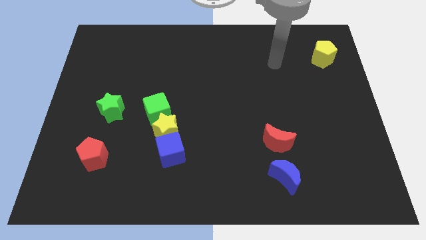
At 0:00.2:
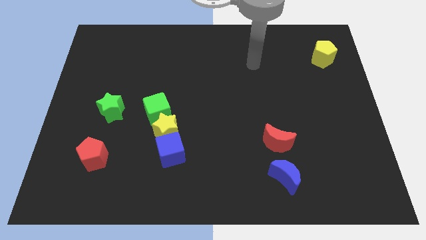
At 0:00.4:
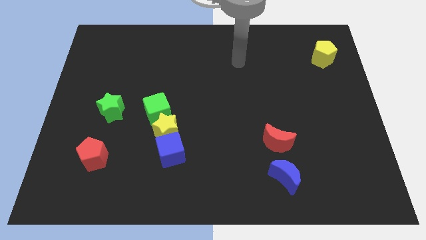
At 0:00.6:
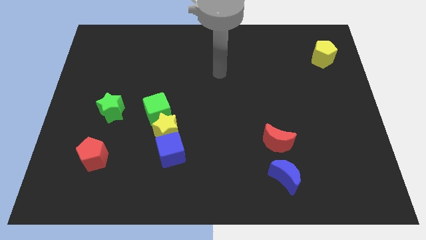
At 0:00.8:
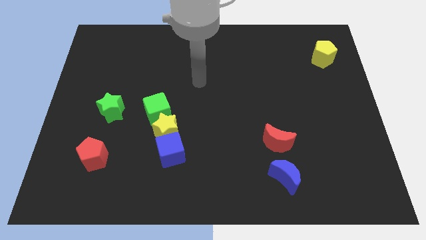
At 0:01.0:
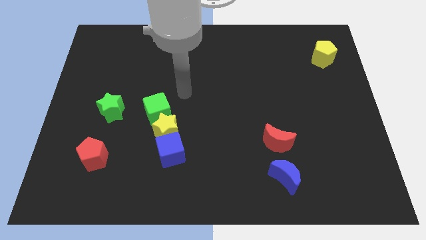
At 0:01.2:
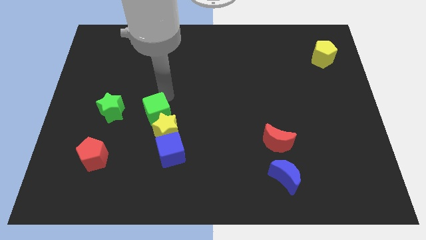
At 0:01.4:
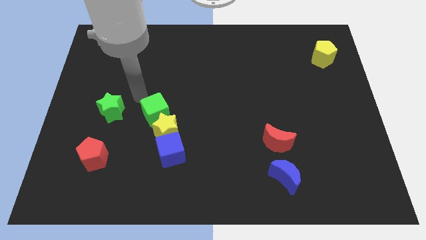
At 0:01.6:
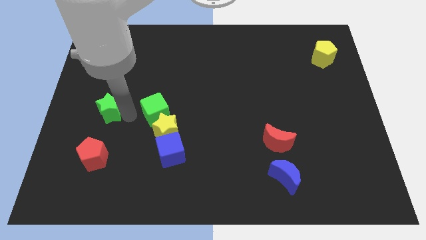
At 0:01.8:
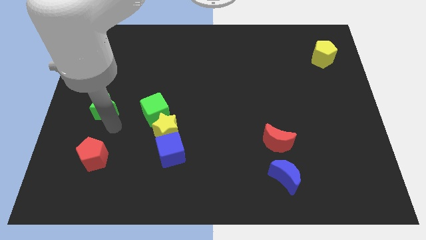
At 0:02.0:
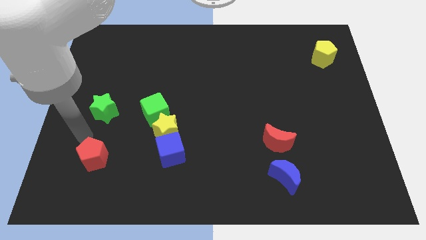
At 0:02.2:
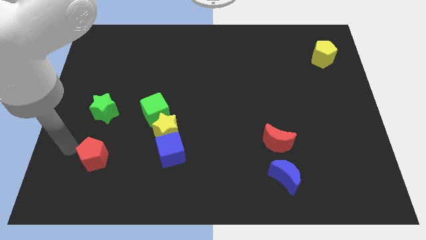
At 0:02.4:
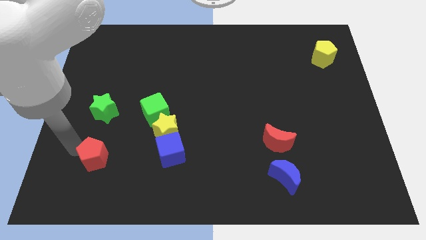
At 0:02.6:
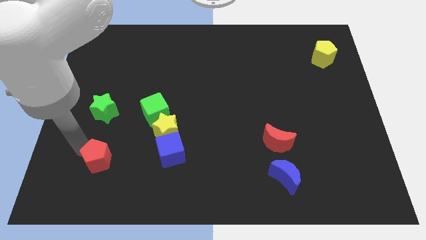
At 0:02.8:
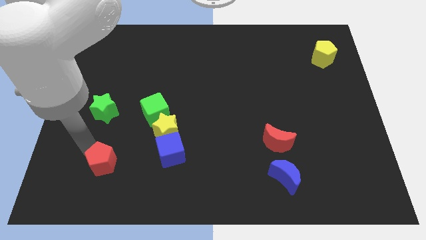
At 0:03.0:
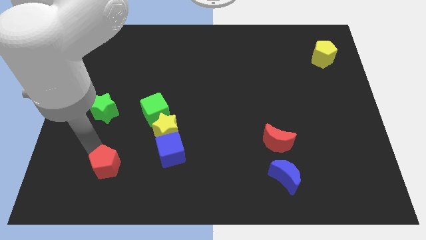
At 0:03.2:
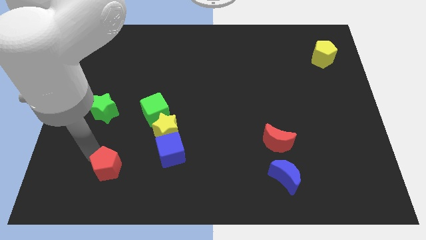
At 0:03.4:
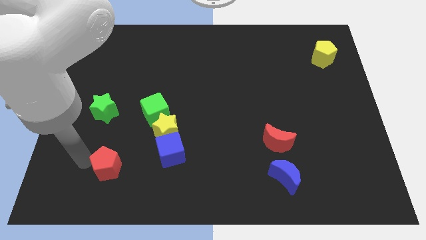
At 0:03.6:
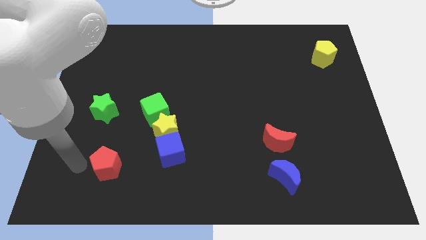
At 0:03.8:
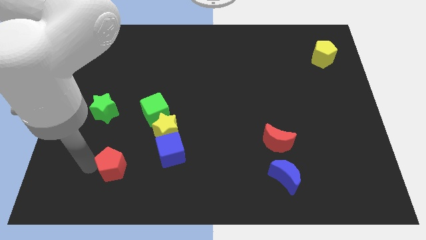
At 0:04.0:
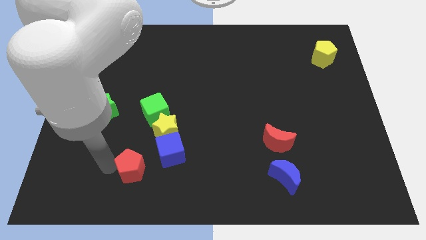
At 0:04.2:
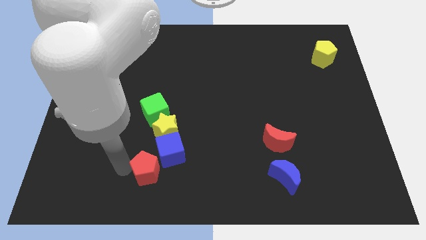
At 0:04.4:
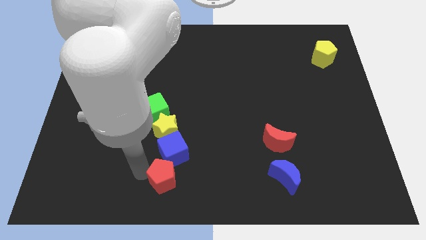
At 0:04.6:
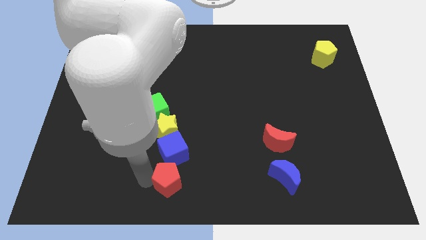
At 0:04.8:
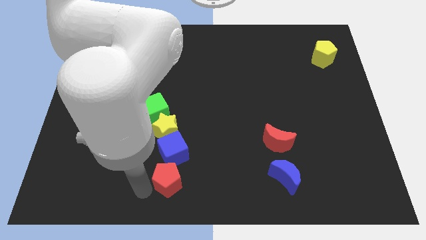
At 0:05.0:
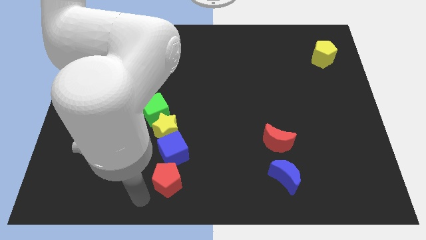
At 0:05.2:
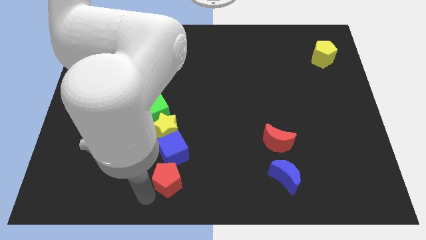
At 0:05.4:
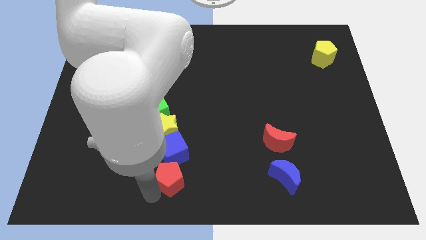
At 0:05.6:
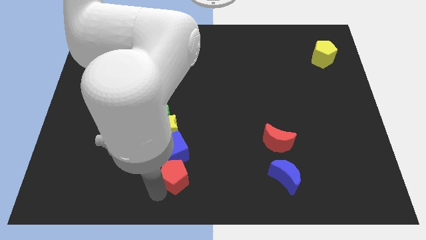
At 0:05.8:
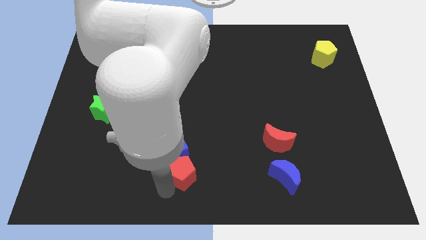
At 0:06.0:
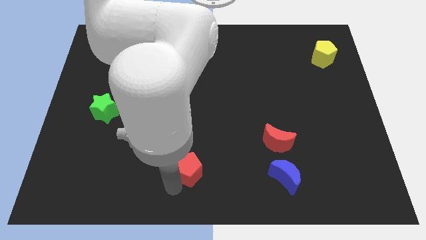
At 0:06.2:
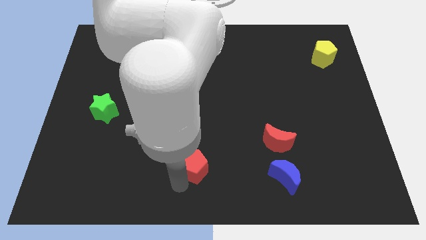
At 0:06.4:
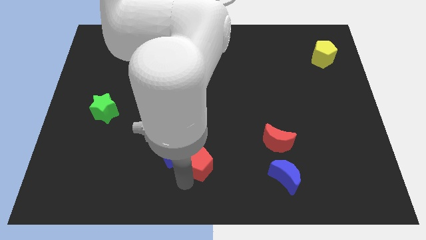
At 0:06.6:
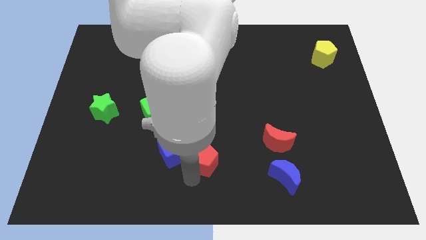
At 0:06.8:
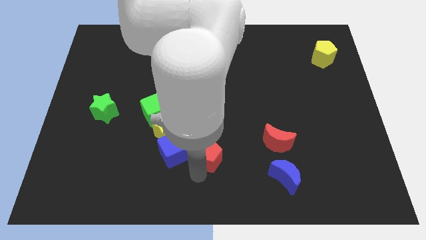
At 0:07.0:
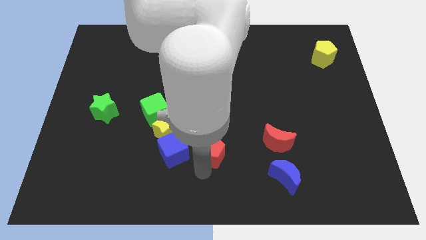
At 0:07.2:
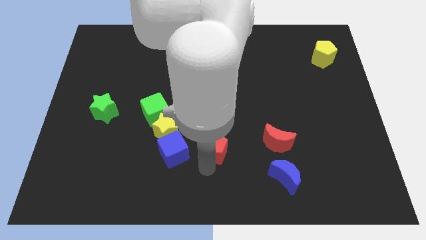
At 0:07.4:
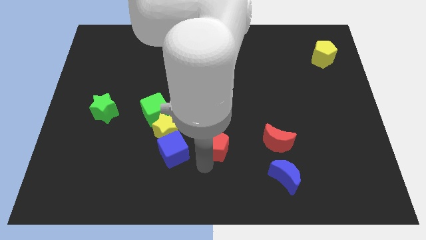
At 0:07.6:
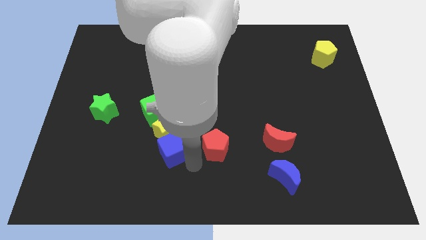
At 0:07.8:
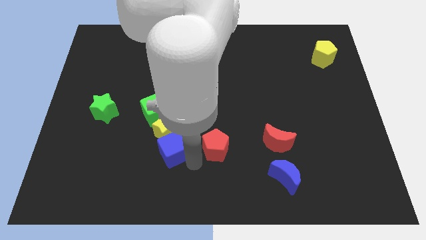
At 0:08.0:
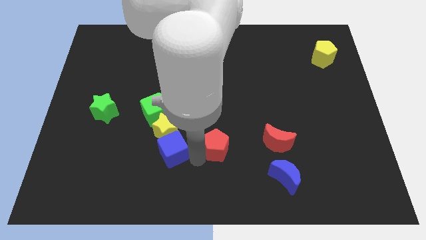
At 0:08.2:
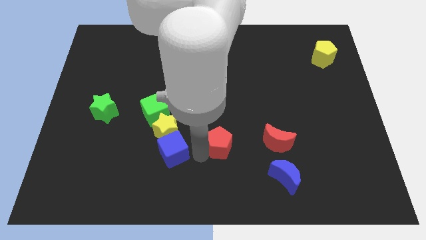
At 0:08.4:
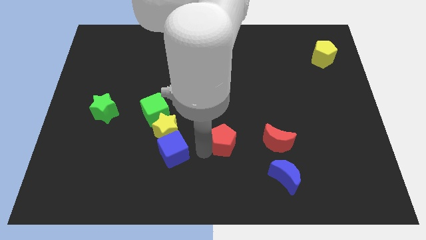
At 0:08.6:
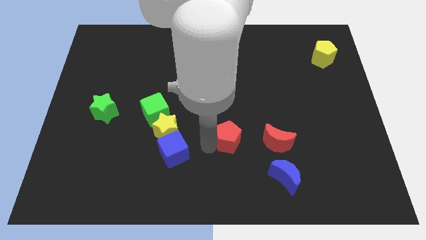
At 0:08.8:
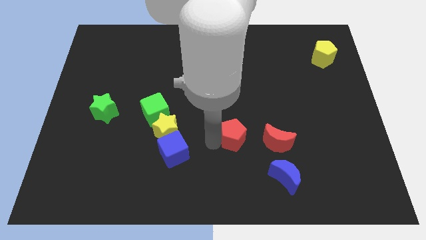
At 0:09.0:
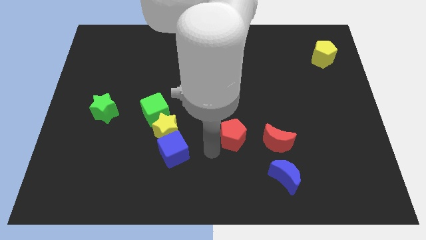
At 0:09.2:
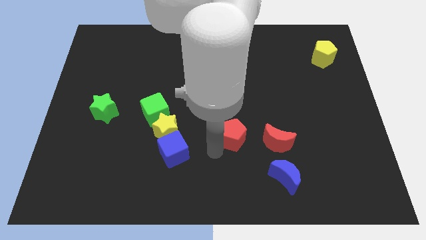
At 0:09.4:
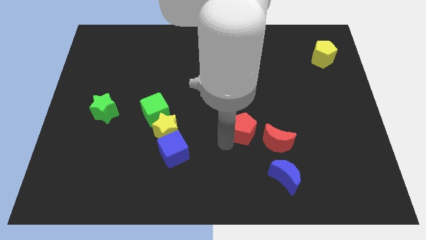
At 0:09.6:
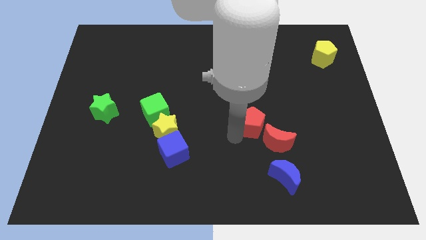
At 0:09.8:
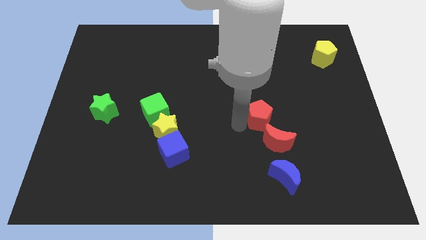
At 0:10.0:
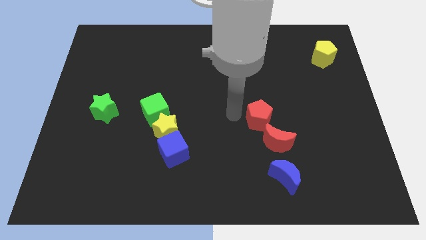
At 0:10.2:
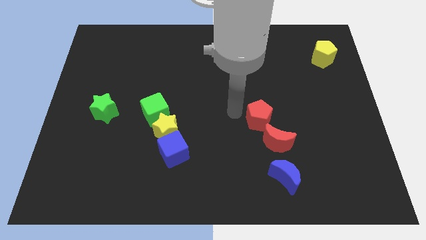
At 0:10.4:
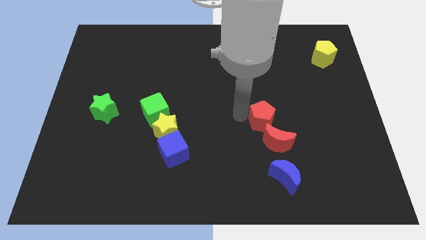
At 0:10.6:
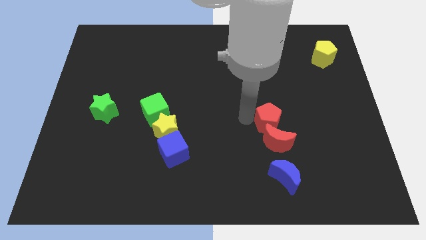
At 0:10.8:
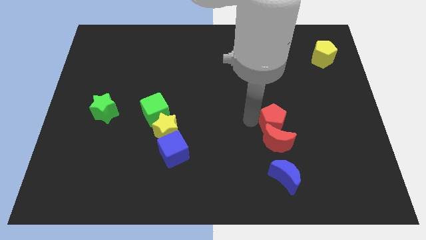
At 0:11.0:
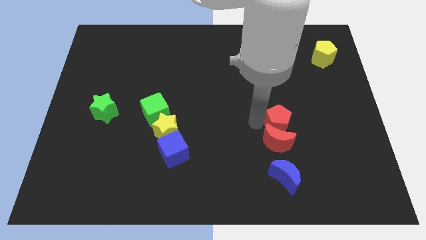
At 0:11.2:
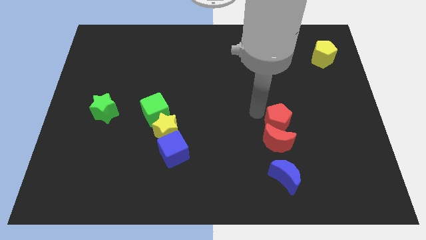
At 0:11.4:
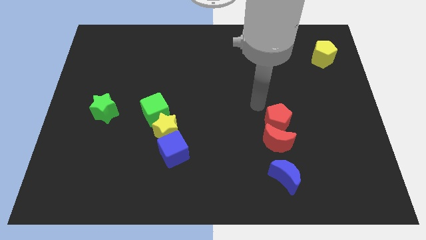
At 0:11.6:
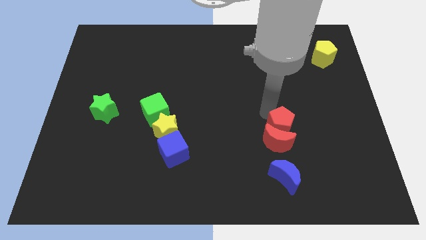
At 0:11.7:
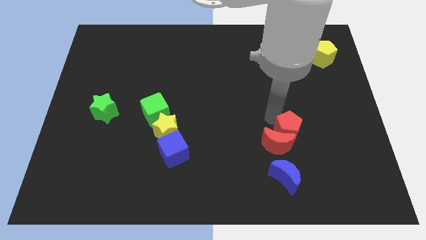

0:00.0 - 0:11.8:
push the red pentagon just right of the red moon

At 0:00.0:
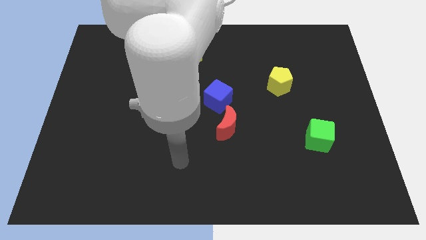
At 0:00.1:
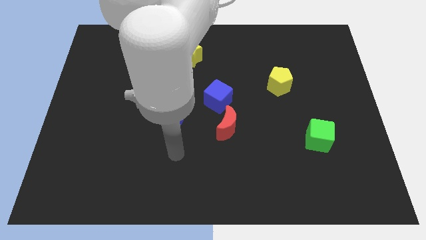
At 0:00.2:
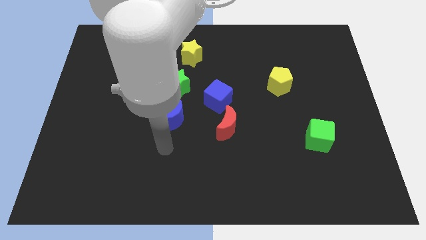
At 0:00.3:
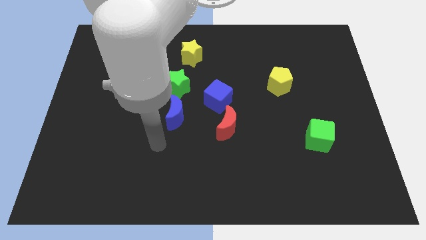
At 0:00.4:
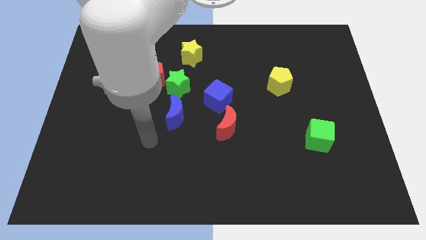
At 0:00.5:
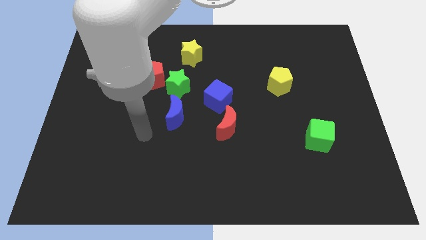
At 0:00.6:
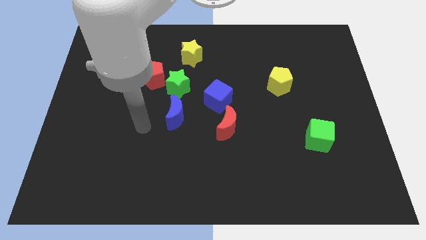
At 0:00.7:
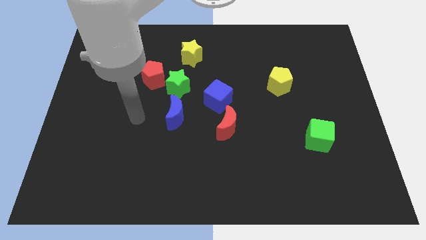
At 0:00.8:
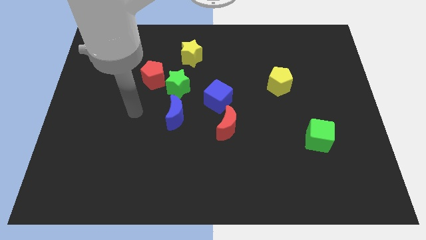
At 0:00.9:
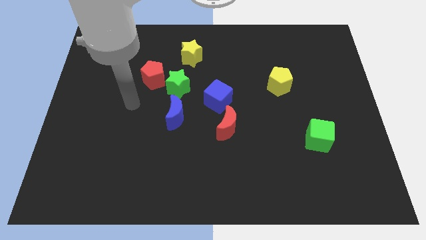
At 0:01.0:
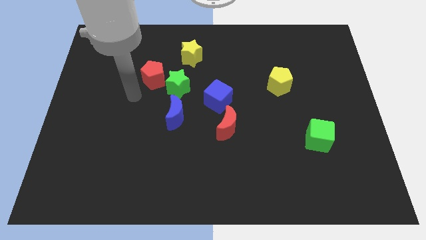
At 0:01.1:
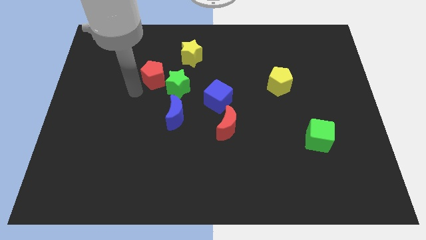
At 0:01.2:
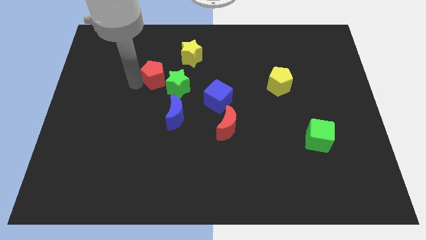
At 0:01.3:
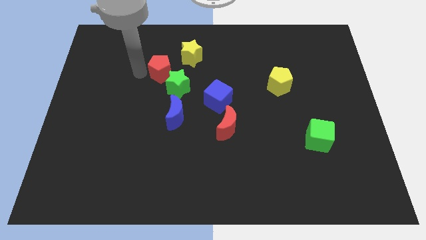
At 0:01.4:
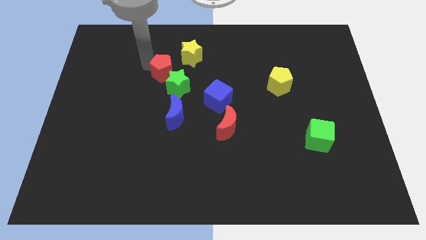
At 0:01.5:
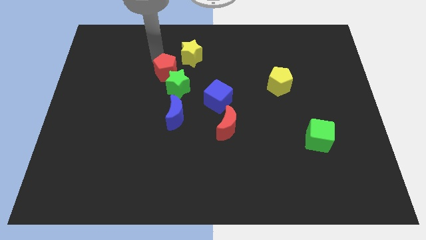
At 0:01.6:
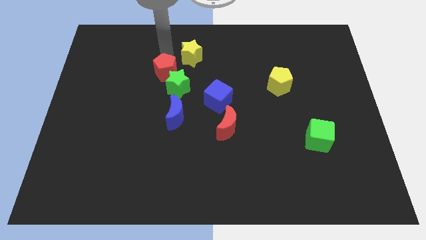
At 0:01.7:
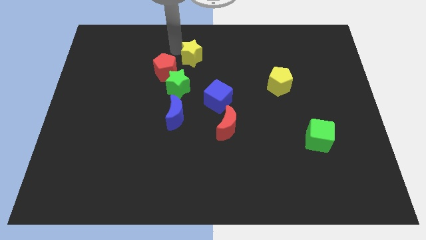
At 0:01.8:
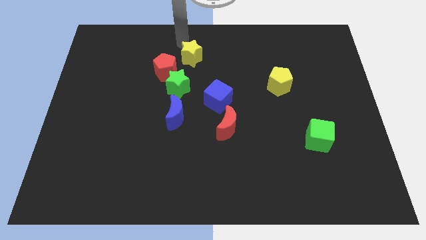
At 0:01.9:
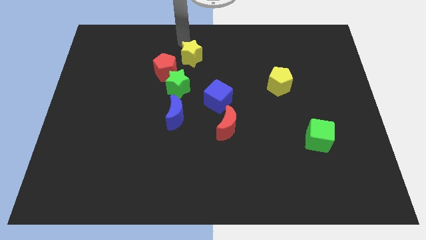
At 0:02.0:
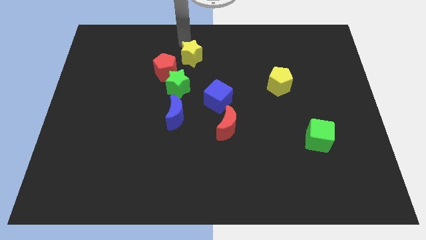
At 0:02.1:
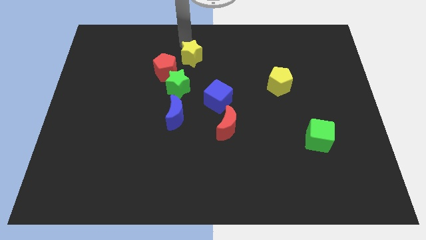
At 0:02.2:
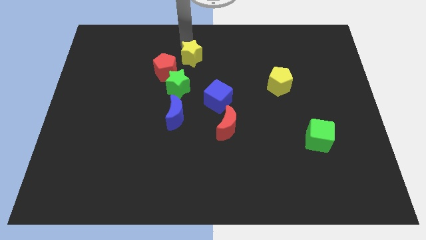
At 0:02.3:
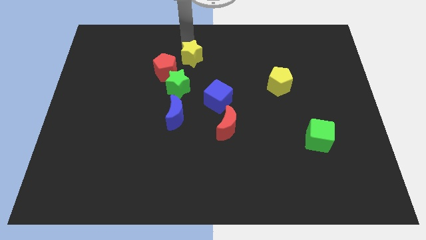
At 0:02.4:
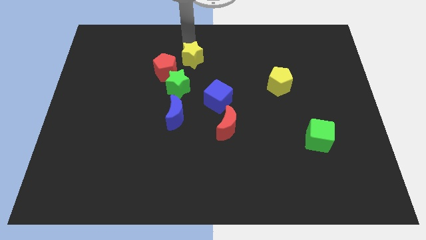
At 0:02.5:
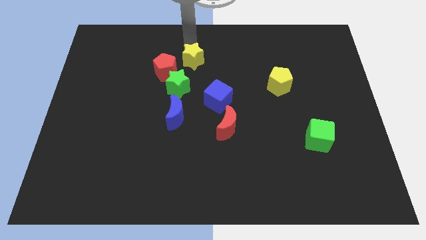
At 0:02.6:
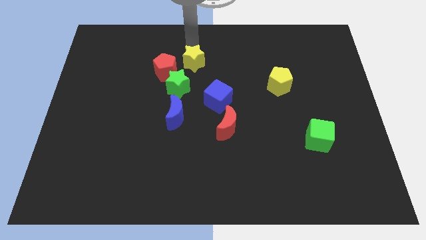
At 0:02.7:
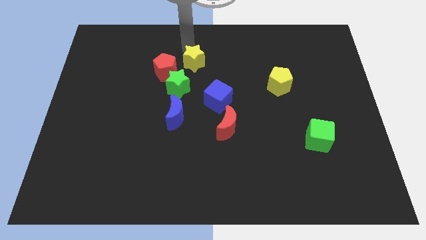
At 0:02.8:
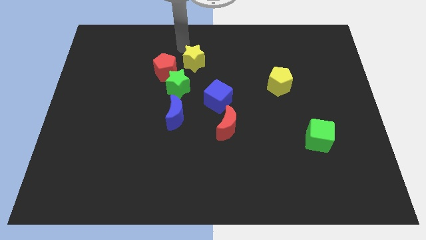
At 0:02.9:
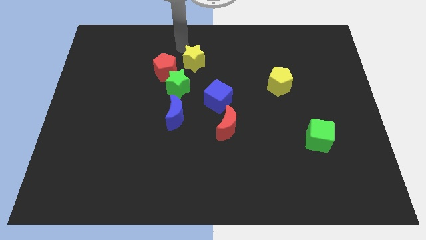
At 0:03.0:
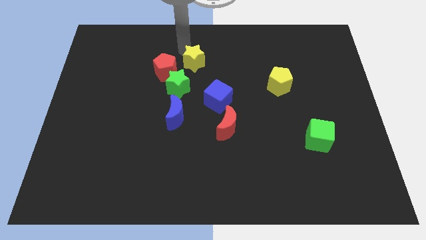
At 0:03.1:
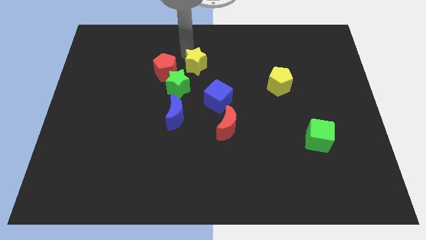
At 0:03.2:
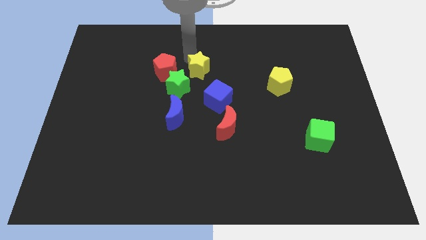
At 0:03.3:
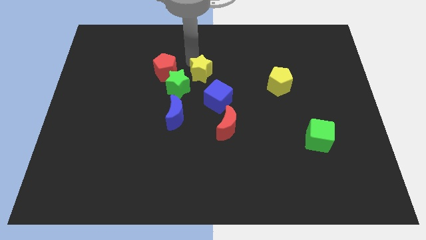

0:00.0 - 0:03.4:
push the yellow star right of the green star
